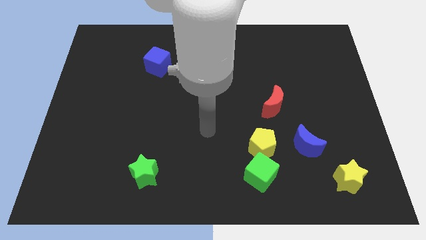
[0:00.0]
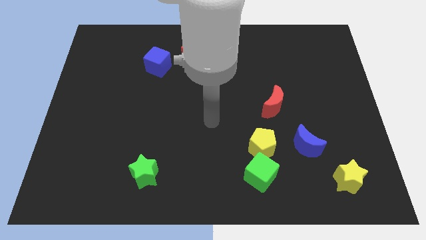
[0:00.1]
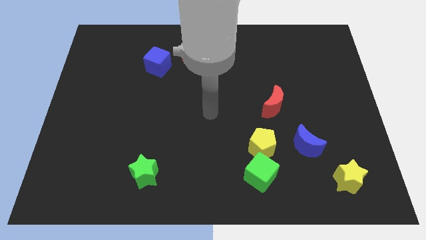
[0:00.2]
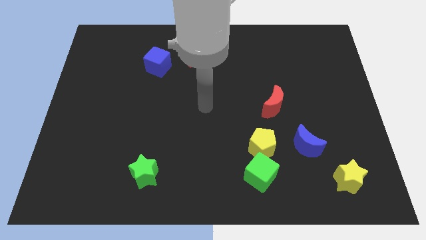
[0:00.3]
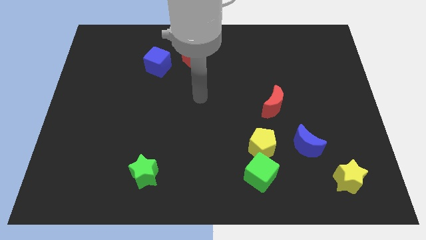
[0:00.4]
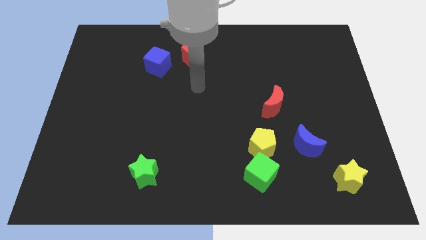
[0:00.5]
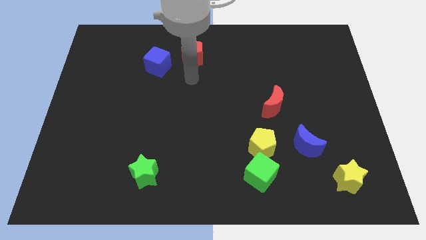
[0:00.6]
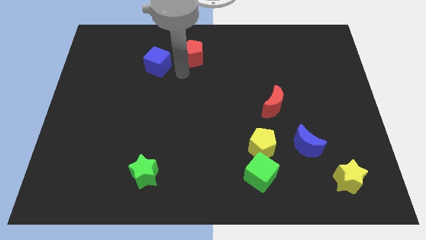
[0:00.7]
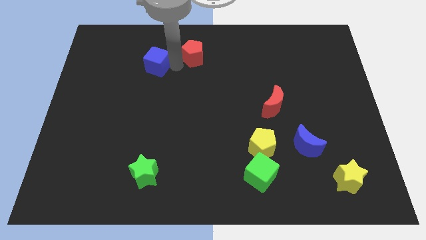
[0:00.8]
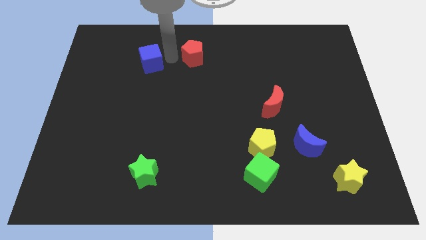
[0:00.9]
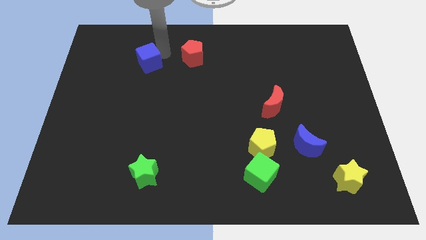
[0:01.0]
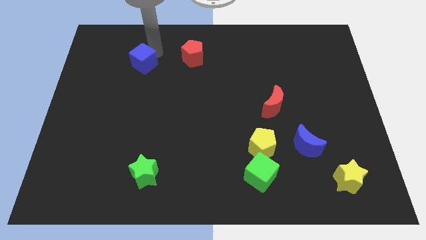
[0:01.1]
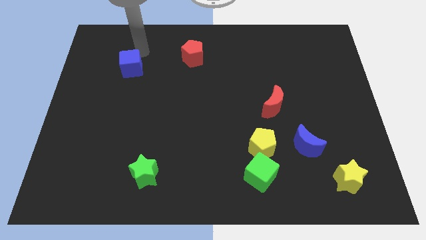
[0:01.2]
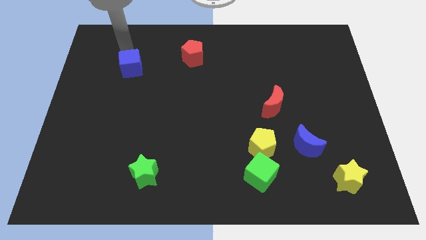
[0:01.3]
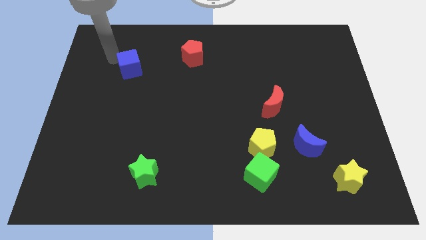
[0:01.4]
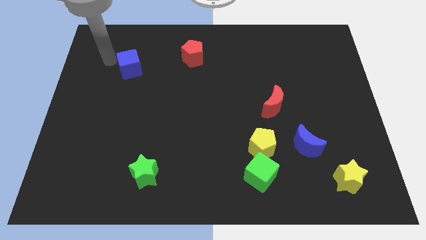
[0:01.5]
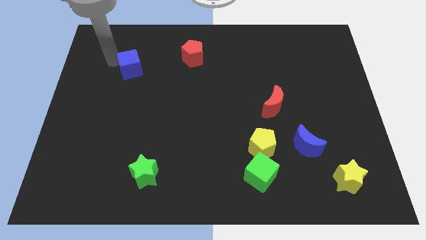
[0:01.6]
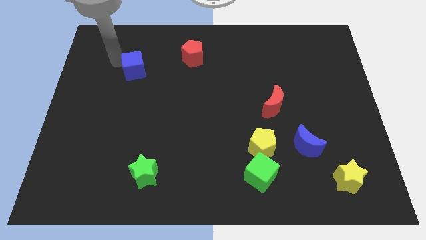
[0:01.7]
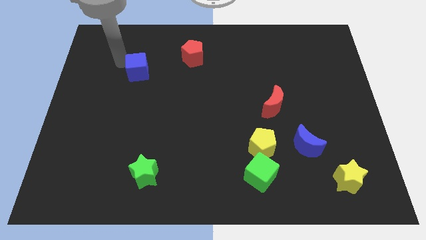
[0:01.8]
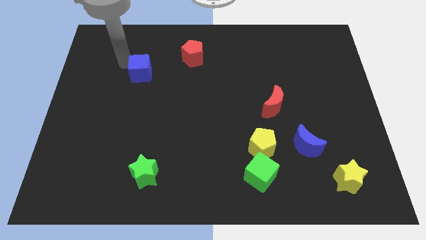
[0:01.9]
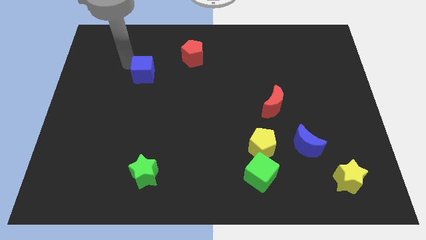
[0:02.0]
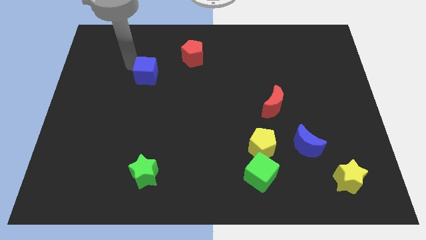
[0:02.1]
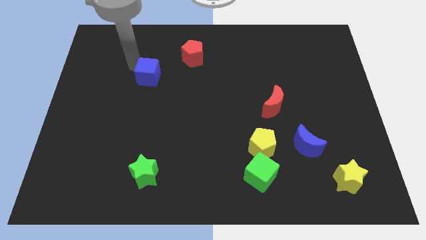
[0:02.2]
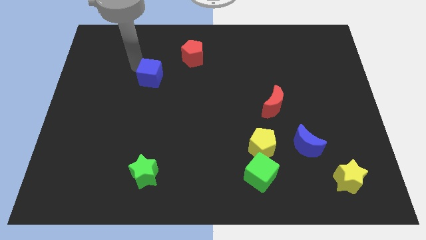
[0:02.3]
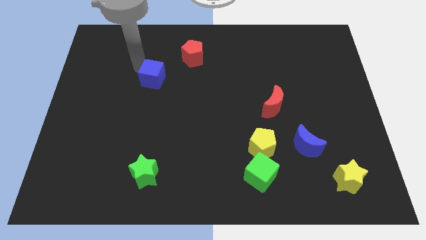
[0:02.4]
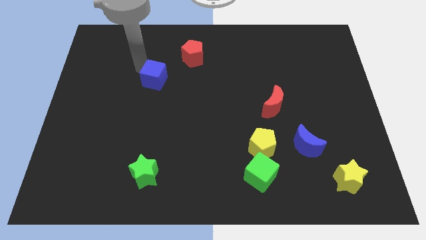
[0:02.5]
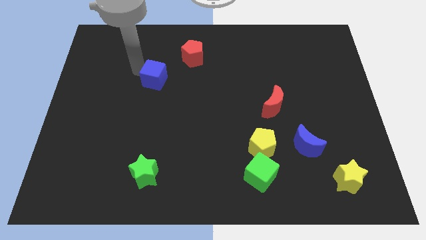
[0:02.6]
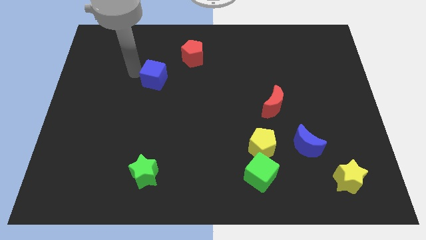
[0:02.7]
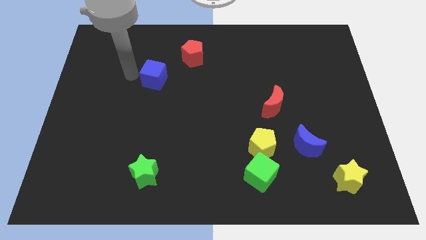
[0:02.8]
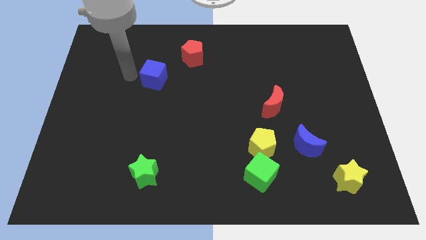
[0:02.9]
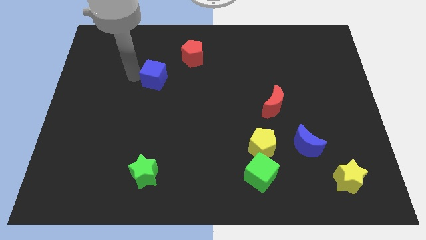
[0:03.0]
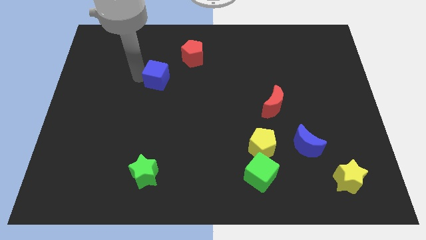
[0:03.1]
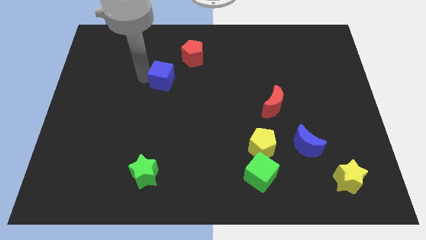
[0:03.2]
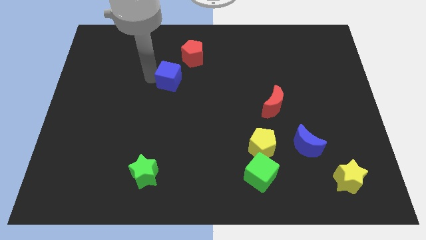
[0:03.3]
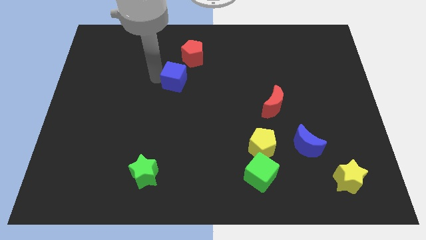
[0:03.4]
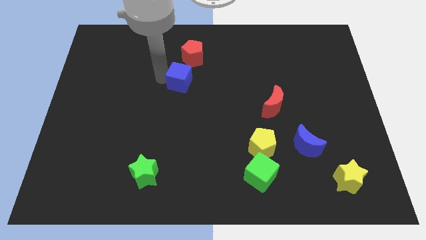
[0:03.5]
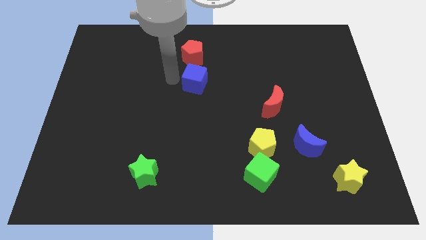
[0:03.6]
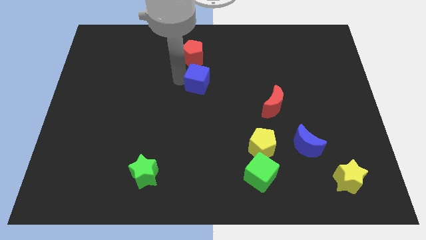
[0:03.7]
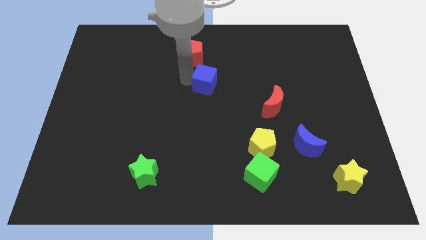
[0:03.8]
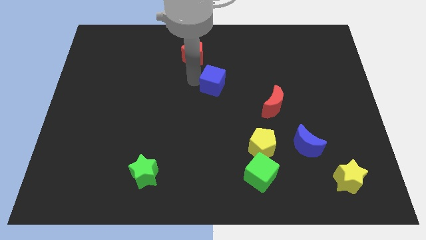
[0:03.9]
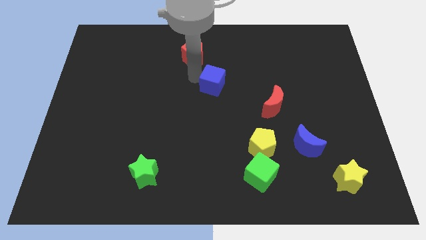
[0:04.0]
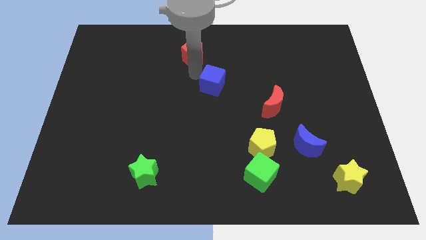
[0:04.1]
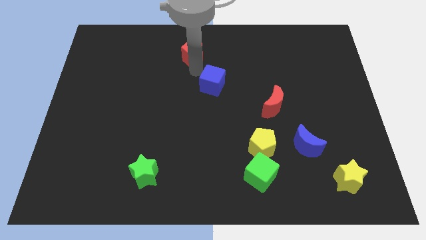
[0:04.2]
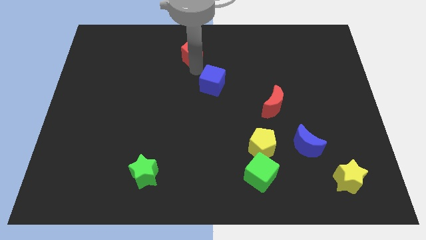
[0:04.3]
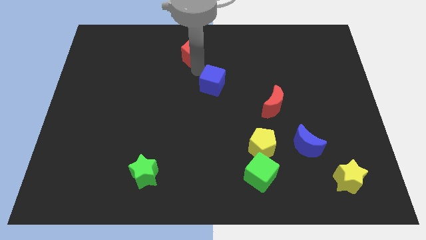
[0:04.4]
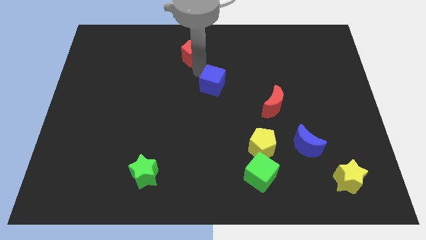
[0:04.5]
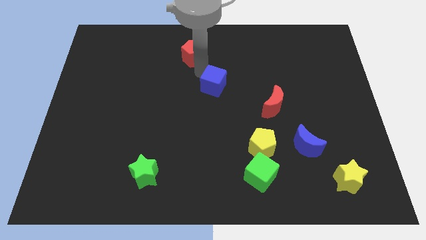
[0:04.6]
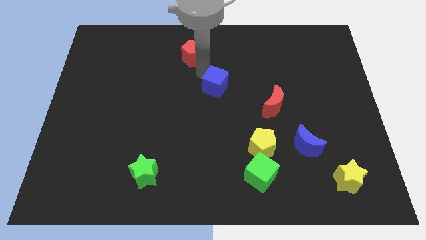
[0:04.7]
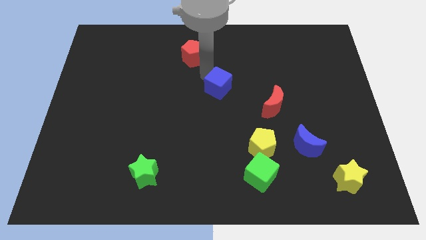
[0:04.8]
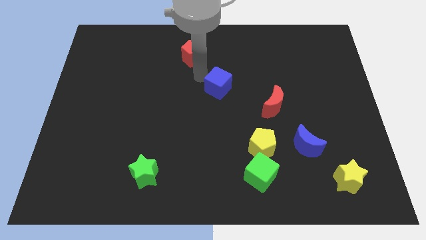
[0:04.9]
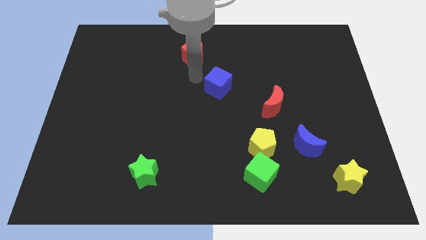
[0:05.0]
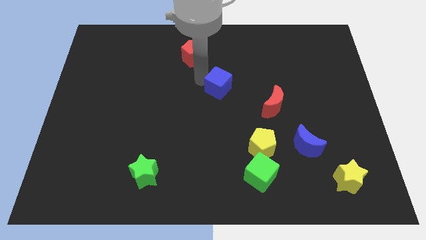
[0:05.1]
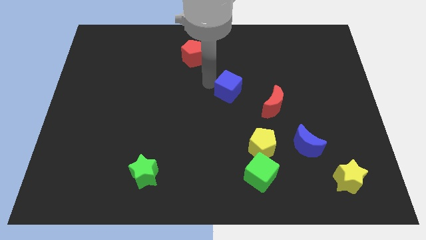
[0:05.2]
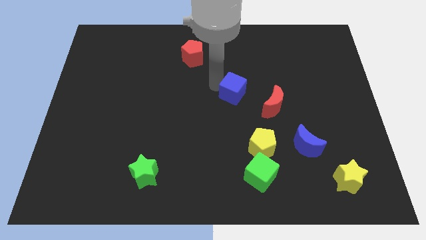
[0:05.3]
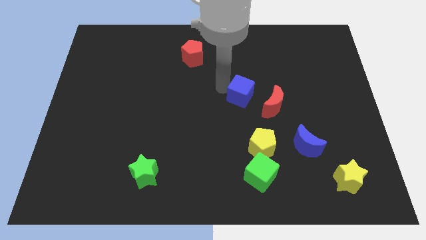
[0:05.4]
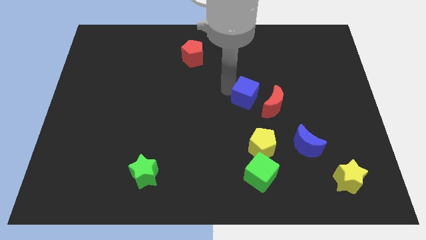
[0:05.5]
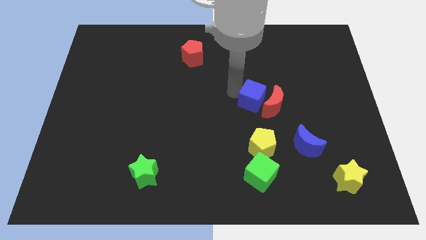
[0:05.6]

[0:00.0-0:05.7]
put the blue cube to the red moon

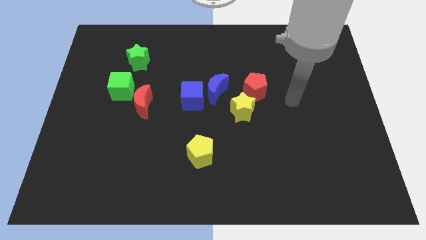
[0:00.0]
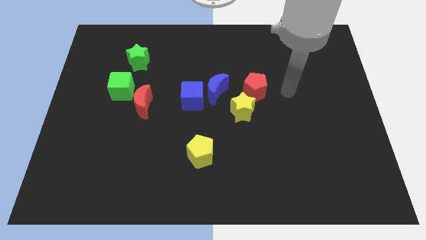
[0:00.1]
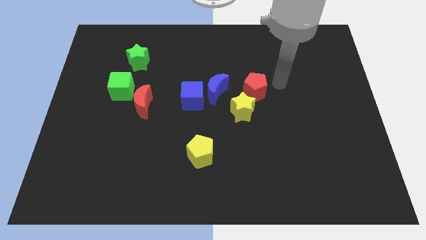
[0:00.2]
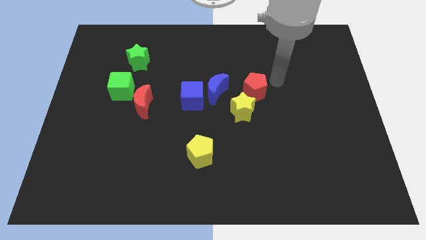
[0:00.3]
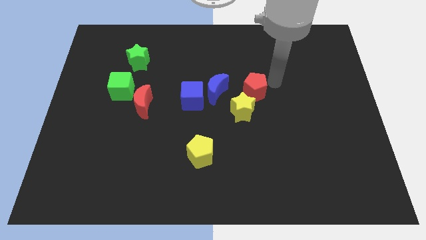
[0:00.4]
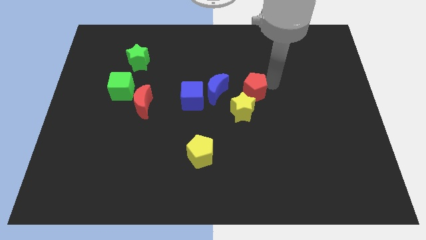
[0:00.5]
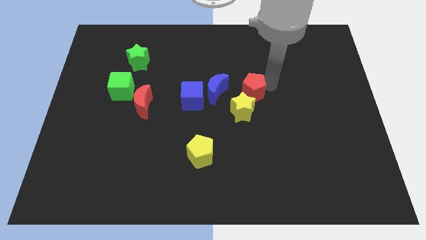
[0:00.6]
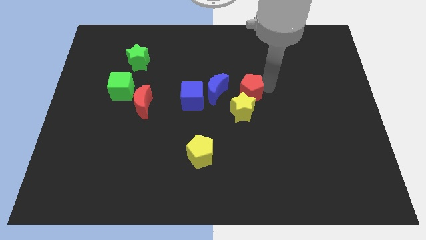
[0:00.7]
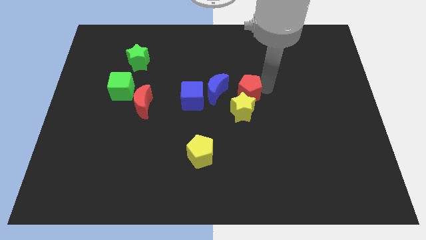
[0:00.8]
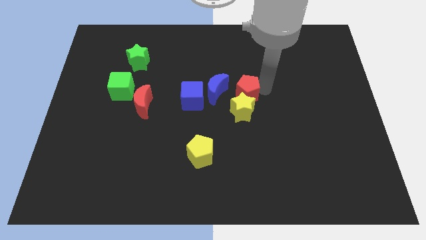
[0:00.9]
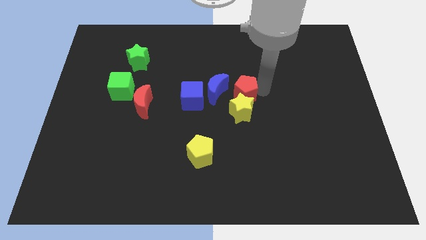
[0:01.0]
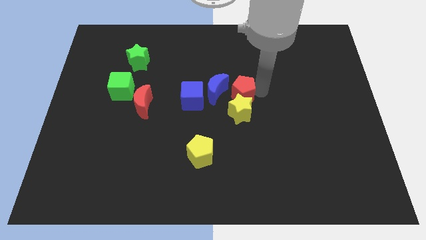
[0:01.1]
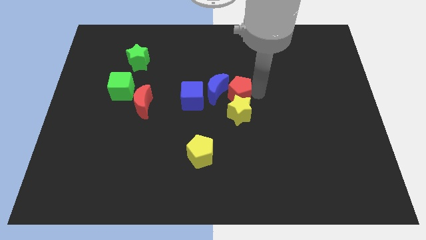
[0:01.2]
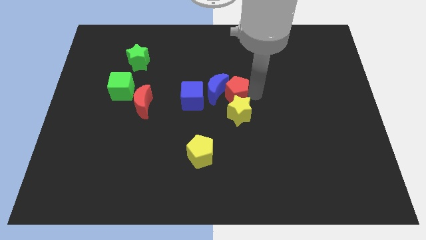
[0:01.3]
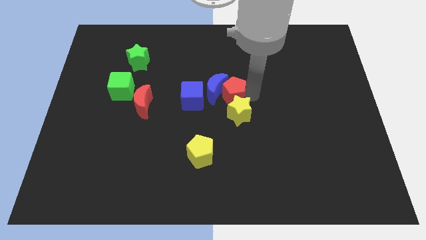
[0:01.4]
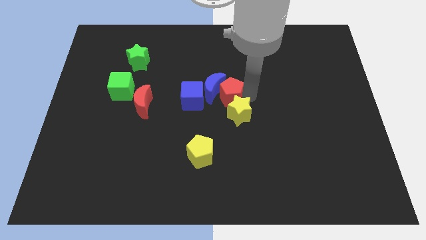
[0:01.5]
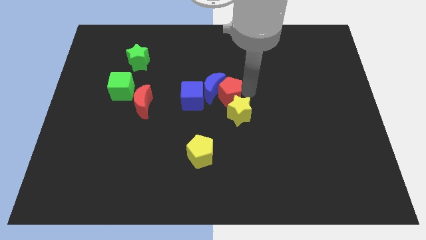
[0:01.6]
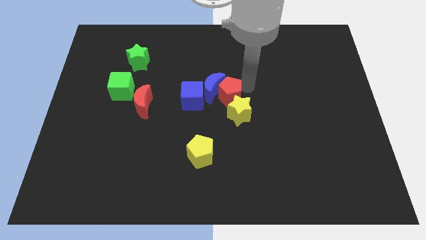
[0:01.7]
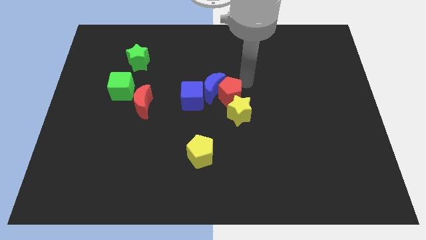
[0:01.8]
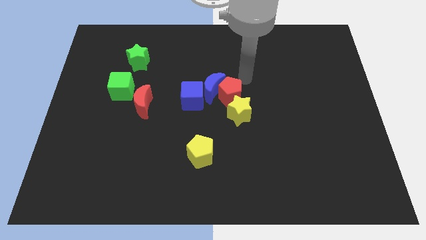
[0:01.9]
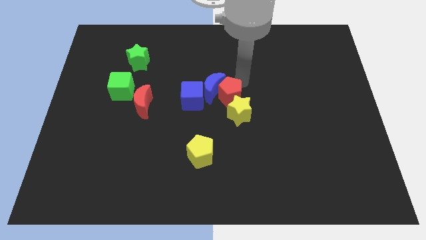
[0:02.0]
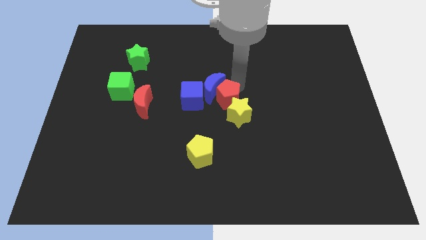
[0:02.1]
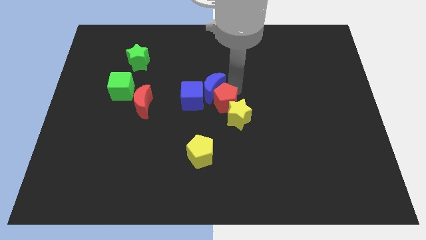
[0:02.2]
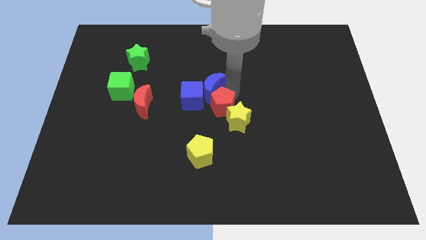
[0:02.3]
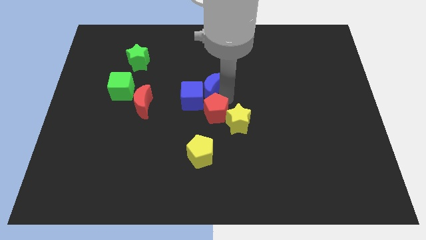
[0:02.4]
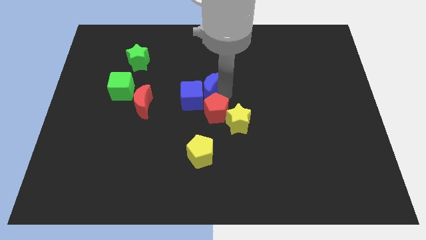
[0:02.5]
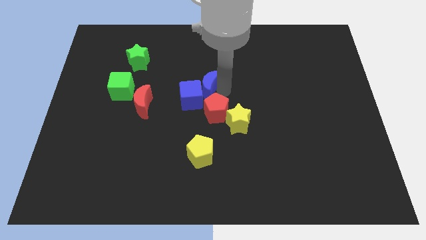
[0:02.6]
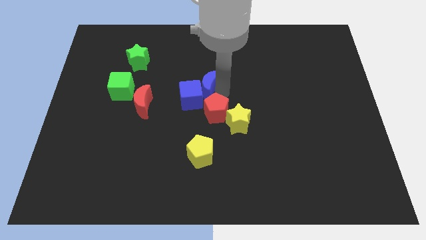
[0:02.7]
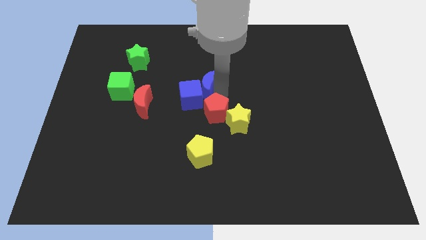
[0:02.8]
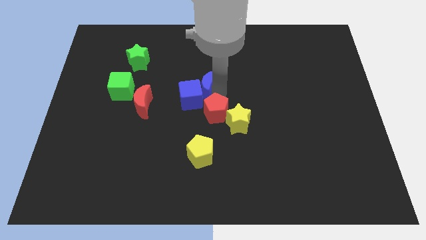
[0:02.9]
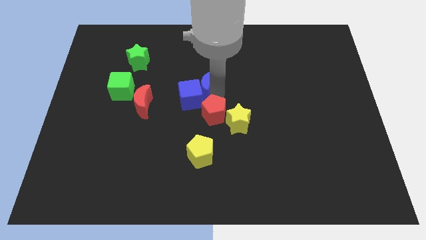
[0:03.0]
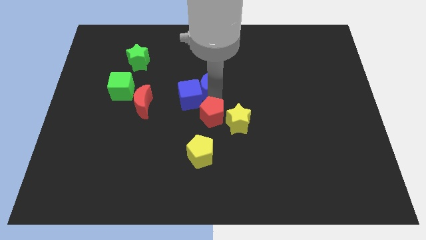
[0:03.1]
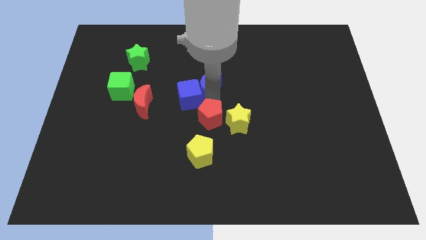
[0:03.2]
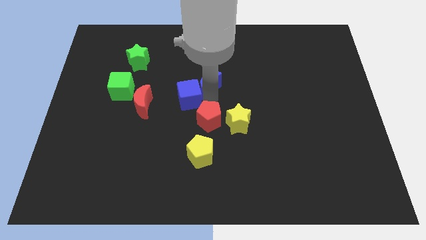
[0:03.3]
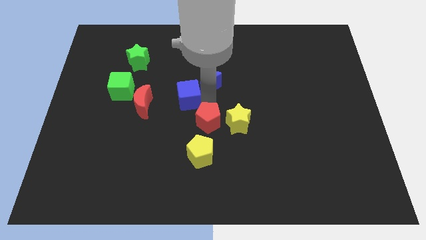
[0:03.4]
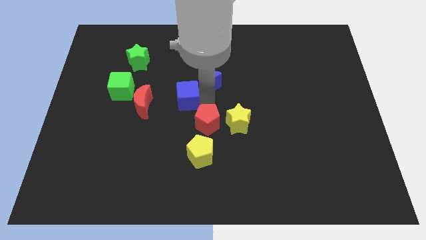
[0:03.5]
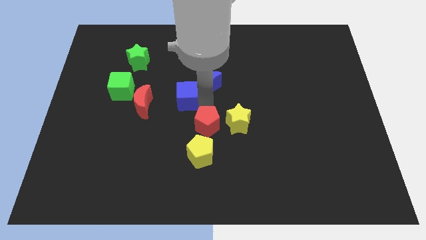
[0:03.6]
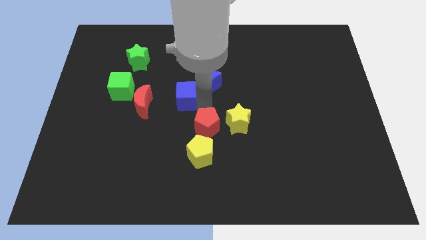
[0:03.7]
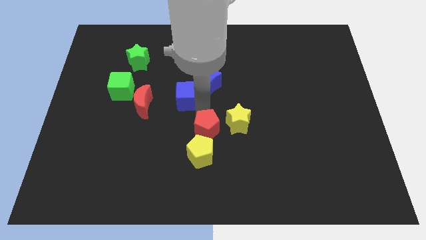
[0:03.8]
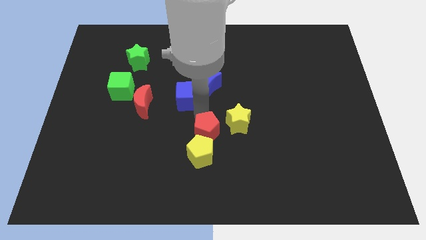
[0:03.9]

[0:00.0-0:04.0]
move the red pentagon towards the yellow pentagon
